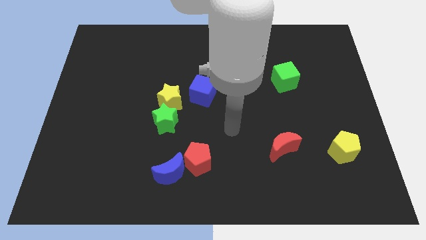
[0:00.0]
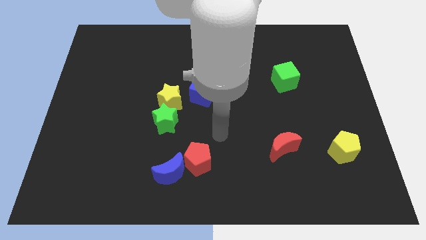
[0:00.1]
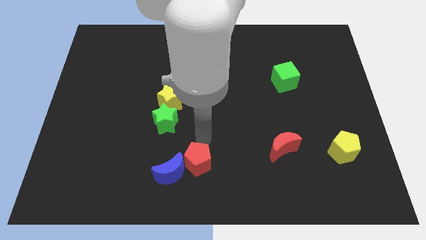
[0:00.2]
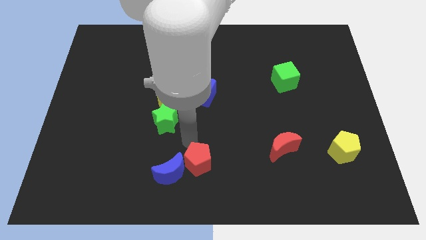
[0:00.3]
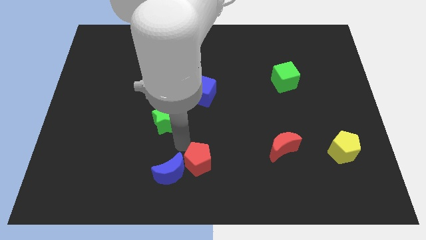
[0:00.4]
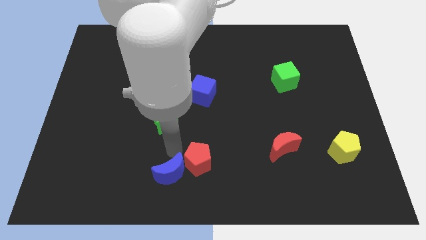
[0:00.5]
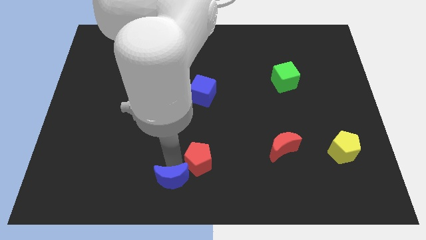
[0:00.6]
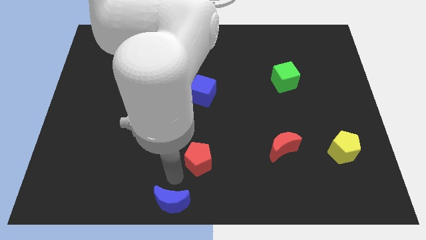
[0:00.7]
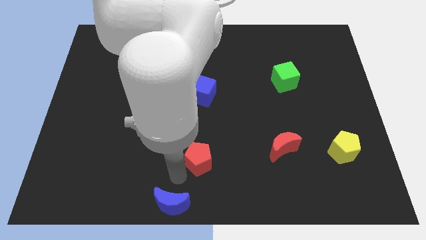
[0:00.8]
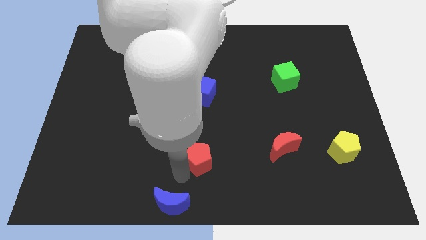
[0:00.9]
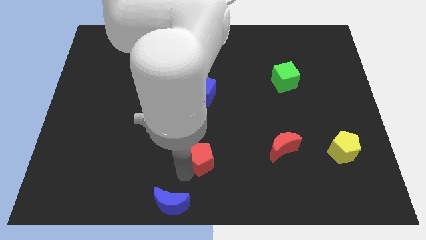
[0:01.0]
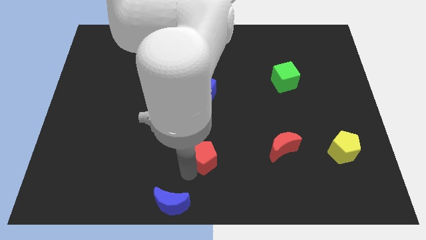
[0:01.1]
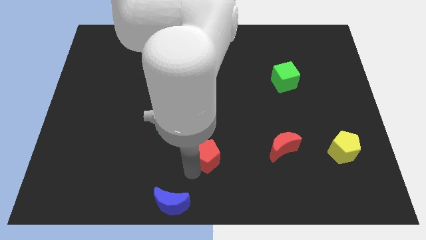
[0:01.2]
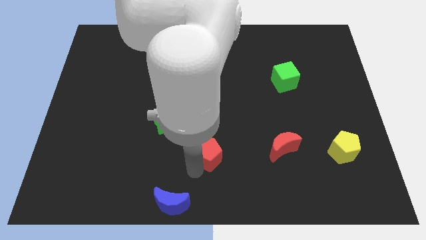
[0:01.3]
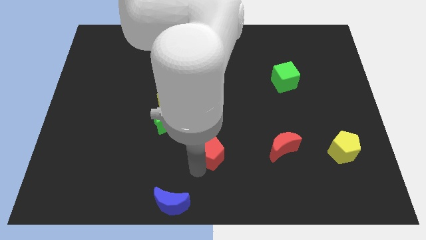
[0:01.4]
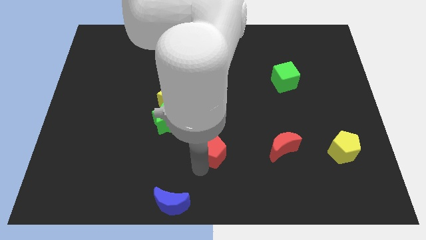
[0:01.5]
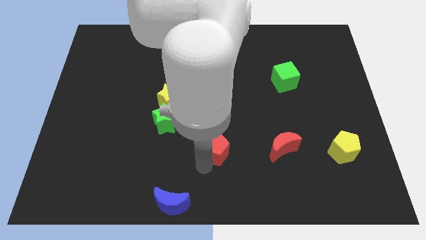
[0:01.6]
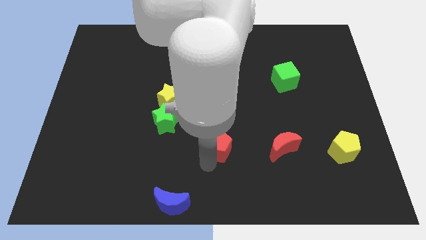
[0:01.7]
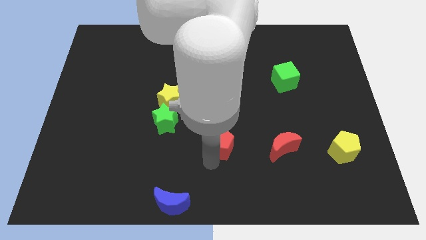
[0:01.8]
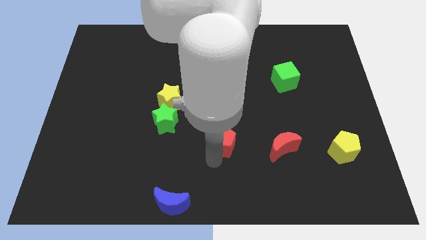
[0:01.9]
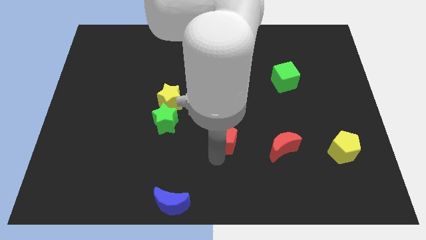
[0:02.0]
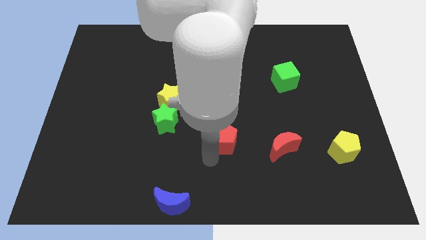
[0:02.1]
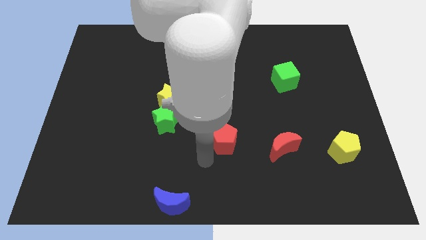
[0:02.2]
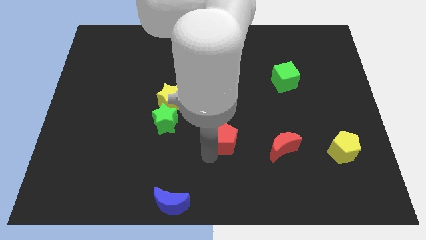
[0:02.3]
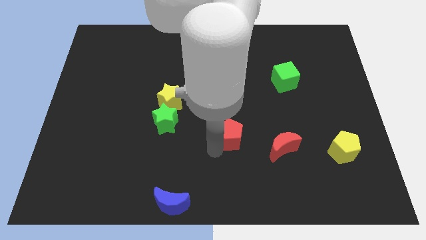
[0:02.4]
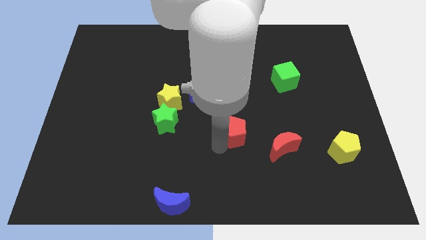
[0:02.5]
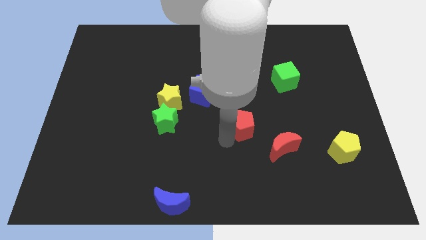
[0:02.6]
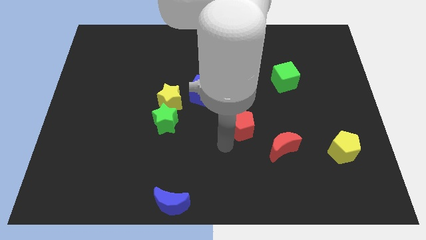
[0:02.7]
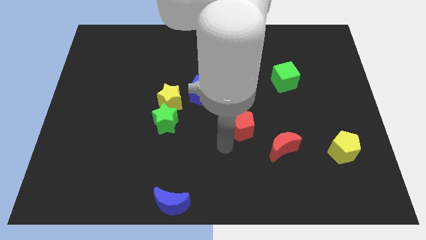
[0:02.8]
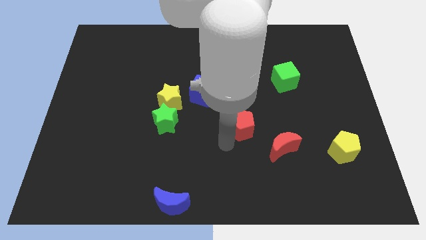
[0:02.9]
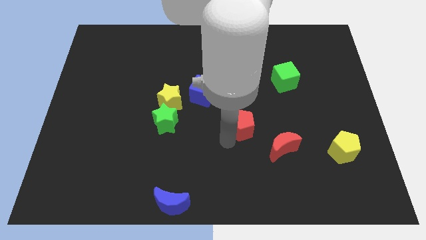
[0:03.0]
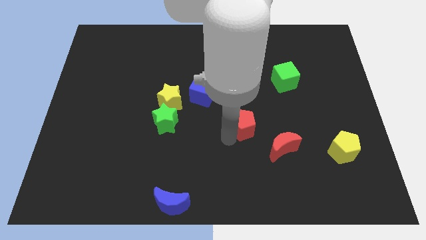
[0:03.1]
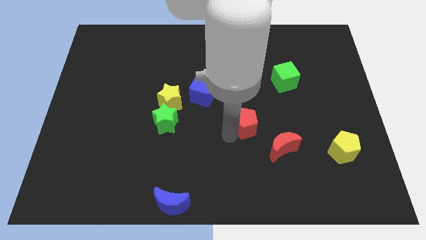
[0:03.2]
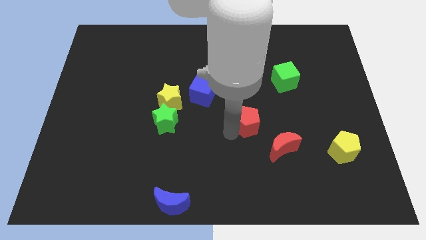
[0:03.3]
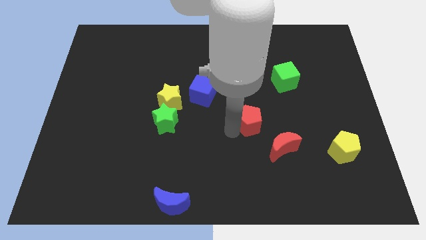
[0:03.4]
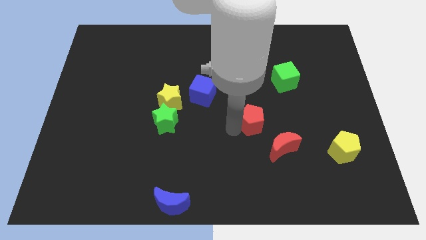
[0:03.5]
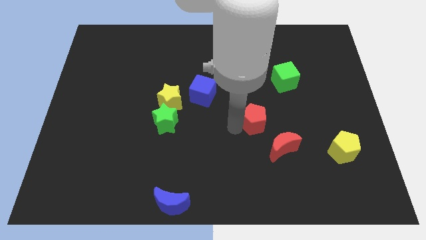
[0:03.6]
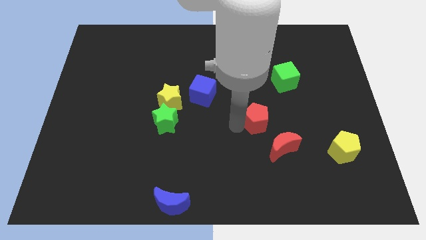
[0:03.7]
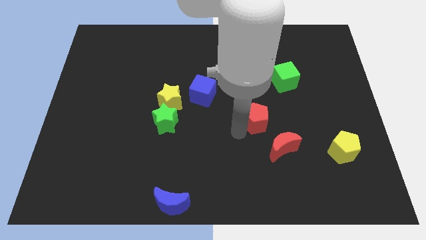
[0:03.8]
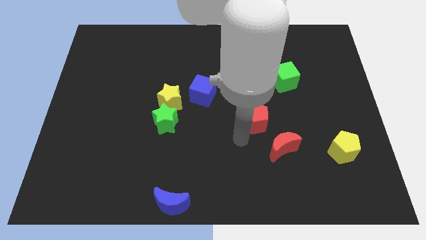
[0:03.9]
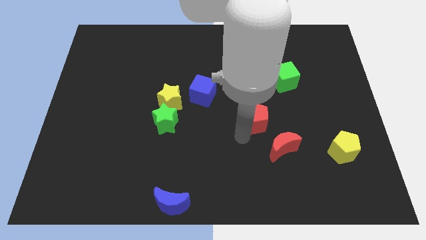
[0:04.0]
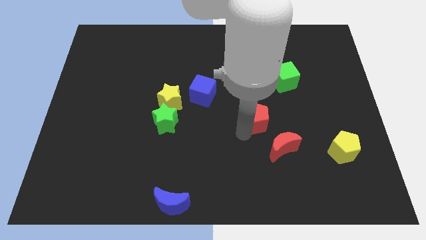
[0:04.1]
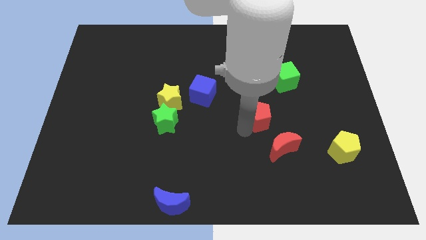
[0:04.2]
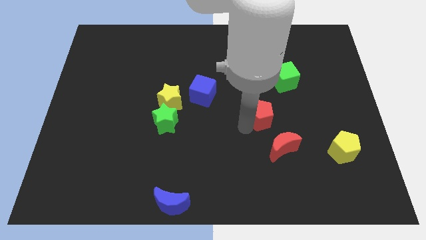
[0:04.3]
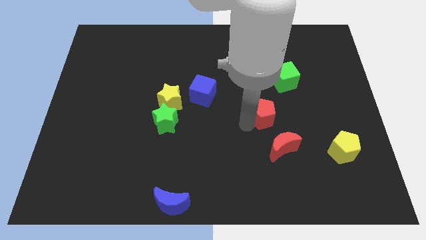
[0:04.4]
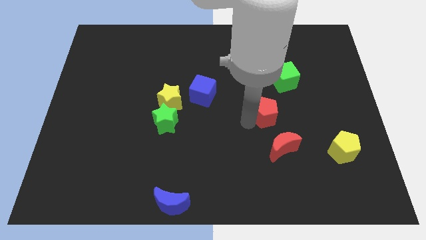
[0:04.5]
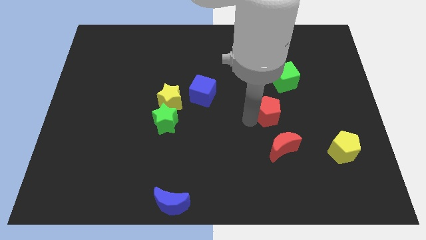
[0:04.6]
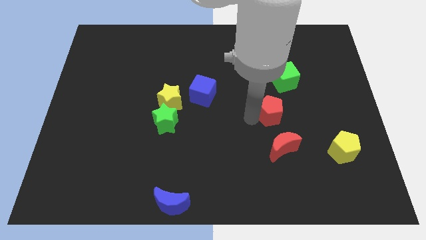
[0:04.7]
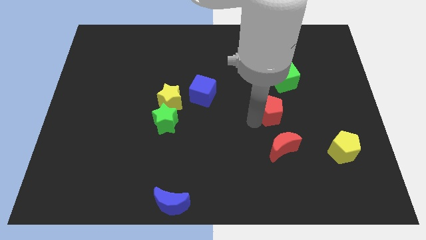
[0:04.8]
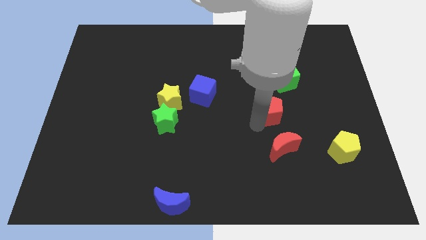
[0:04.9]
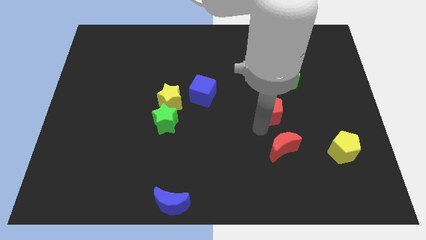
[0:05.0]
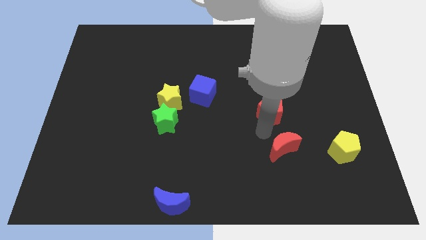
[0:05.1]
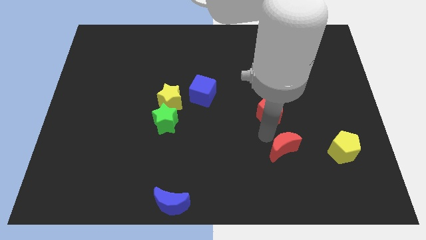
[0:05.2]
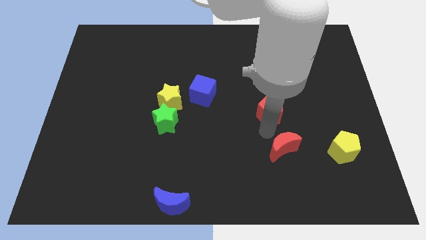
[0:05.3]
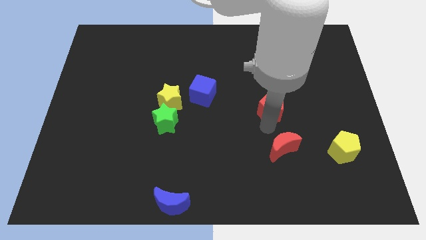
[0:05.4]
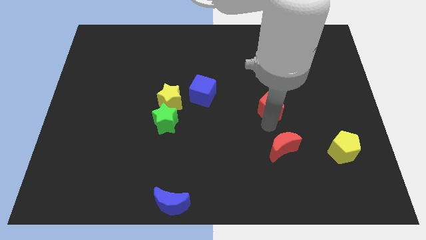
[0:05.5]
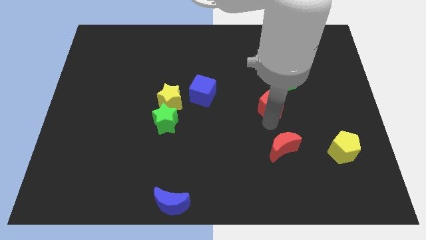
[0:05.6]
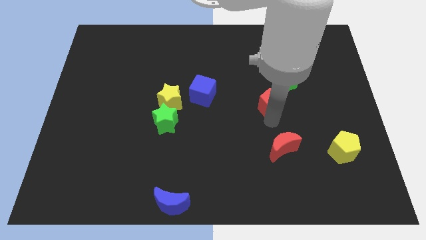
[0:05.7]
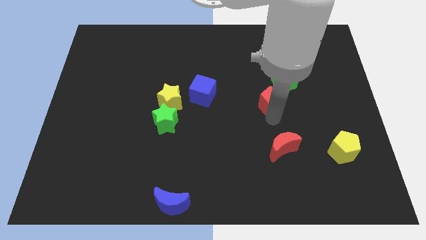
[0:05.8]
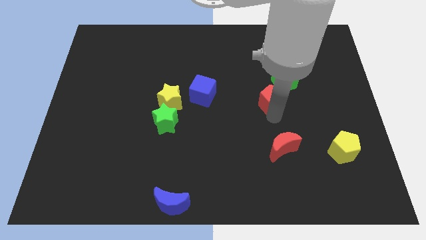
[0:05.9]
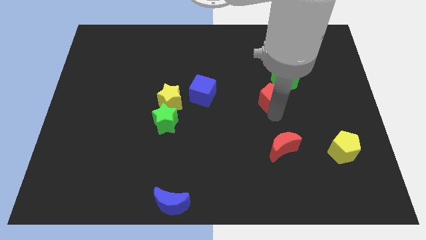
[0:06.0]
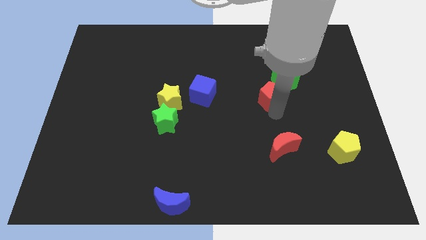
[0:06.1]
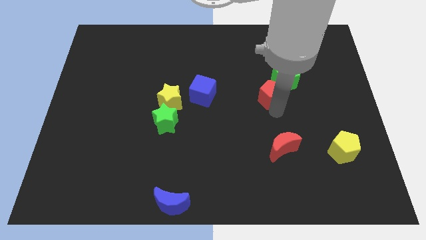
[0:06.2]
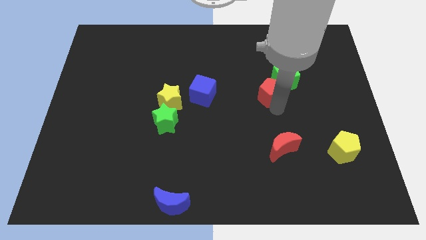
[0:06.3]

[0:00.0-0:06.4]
put the red pentagon next to the green cube
